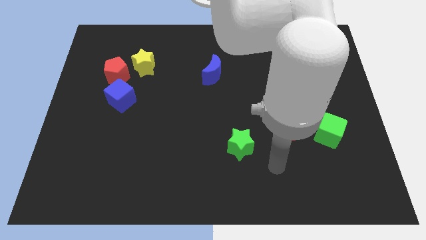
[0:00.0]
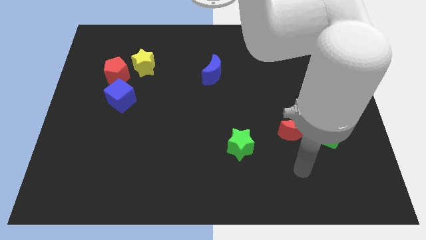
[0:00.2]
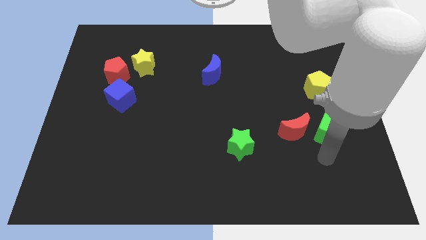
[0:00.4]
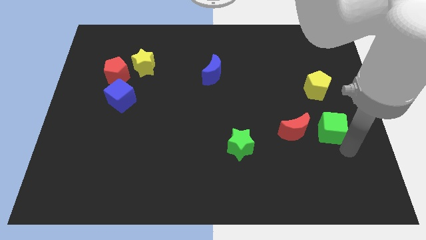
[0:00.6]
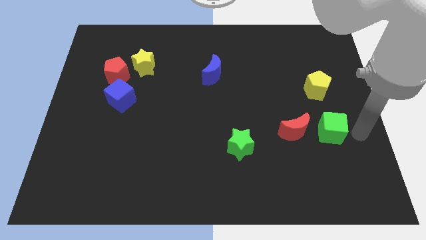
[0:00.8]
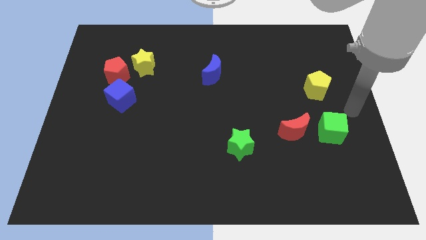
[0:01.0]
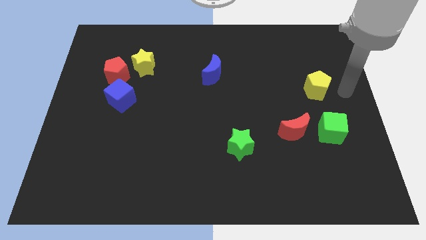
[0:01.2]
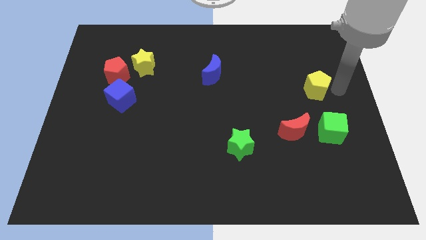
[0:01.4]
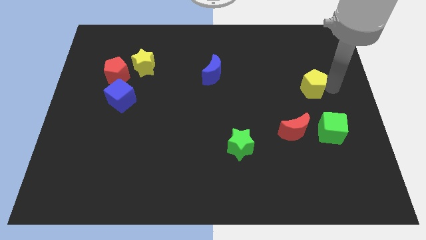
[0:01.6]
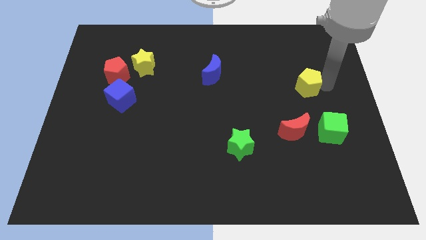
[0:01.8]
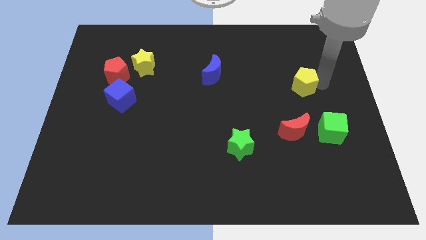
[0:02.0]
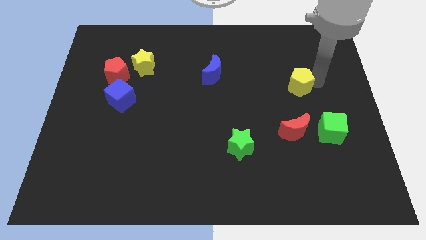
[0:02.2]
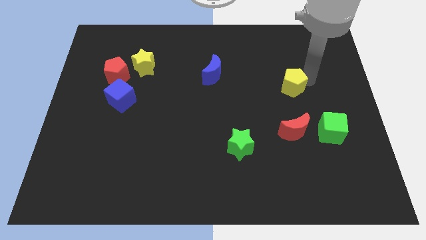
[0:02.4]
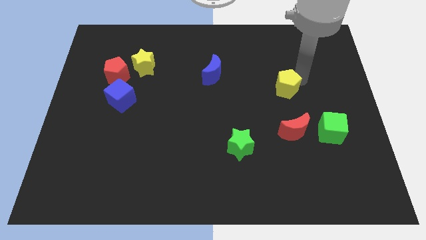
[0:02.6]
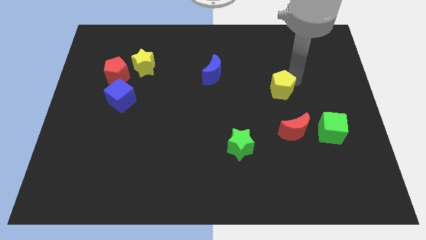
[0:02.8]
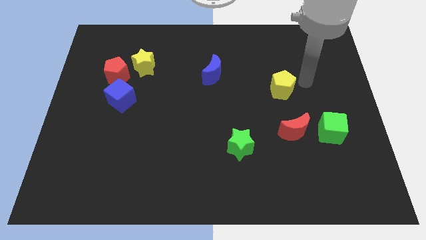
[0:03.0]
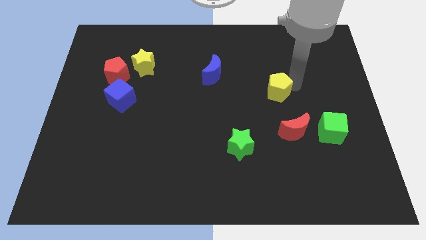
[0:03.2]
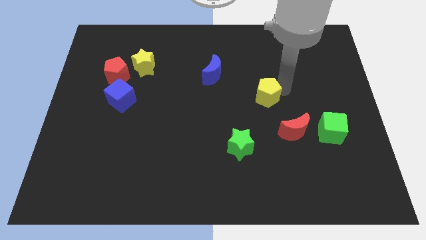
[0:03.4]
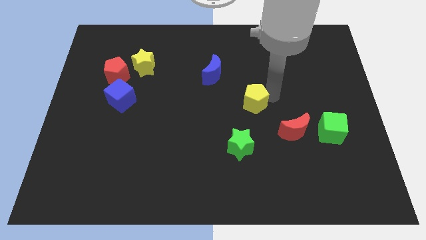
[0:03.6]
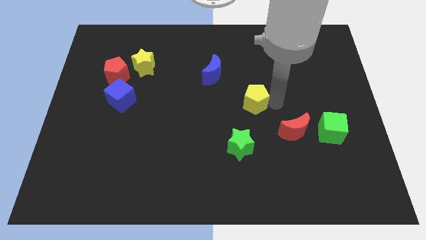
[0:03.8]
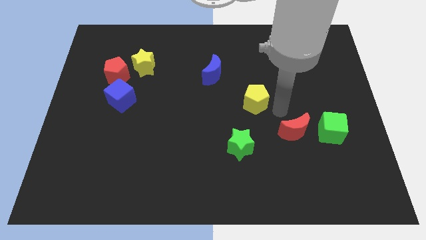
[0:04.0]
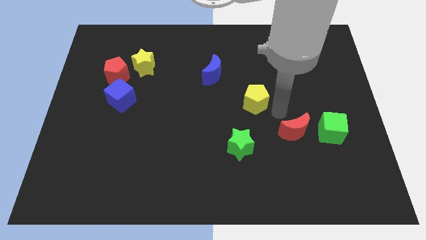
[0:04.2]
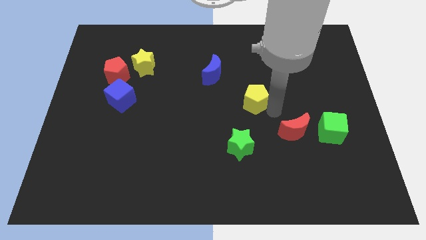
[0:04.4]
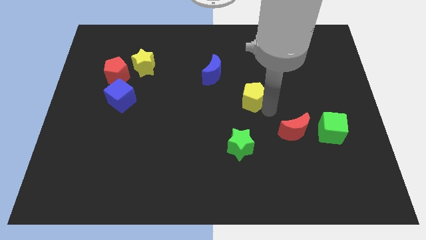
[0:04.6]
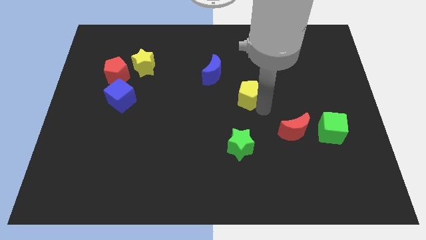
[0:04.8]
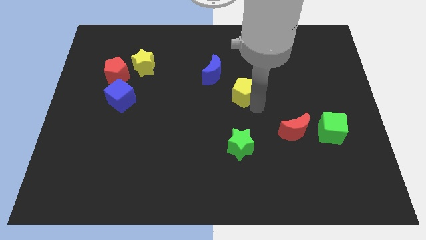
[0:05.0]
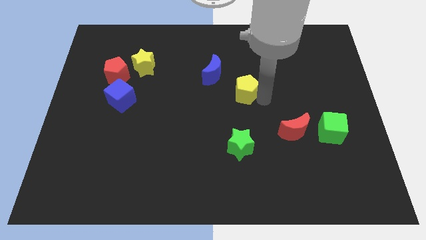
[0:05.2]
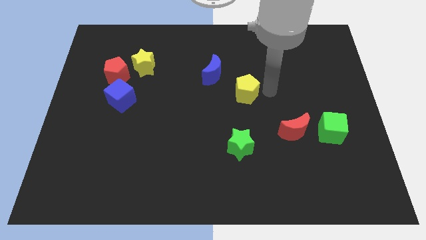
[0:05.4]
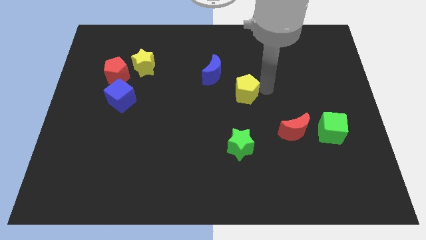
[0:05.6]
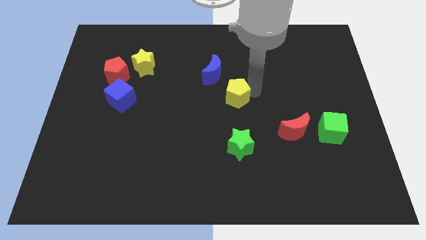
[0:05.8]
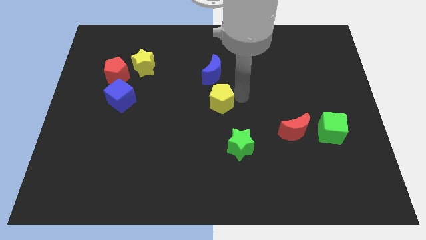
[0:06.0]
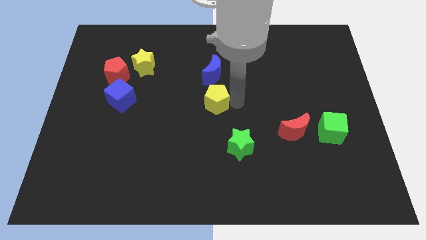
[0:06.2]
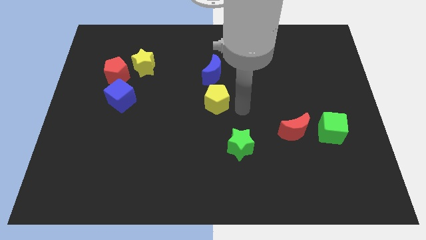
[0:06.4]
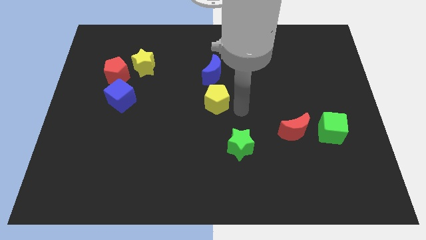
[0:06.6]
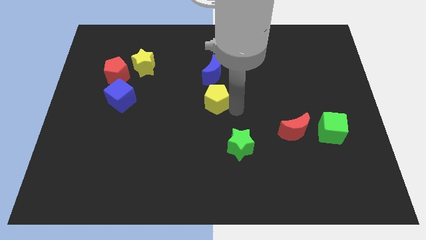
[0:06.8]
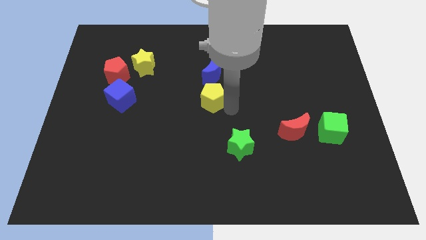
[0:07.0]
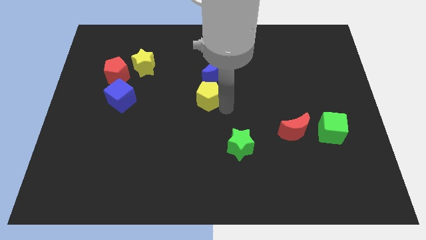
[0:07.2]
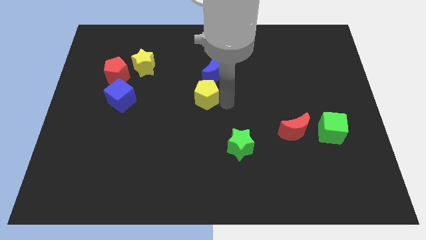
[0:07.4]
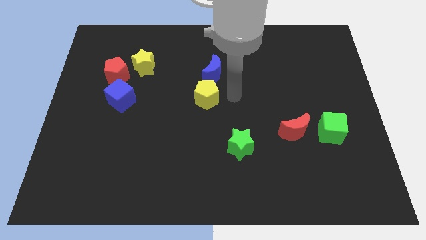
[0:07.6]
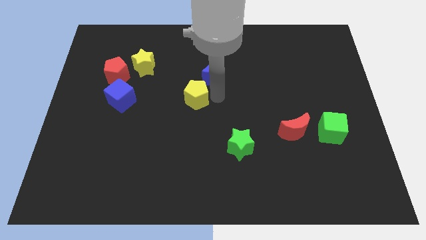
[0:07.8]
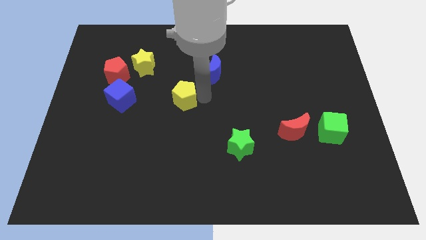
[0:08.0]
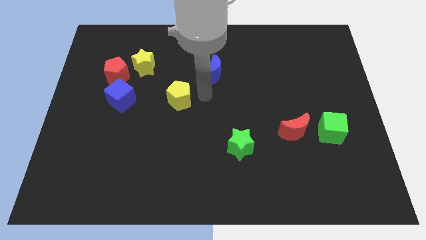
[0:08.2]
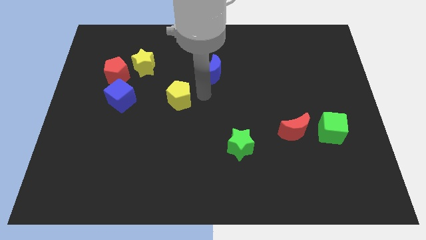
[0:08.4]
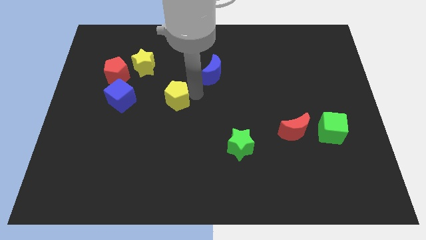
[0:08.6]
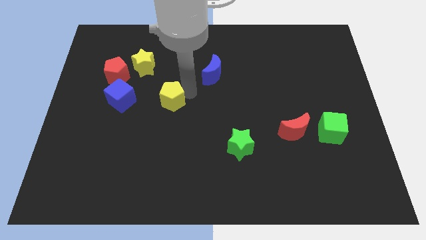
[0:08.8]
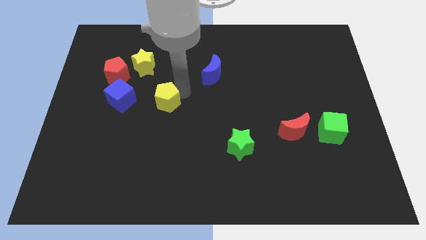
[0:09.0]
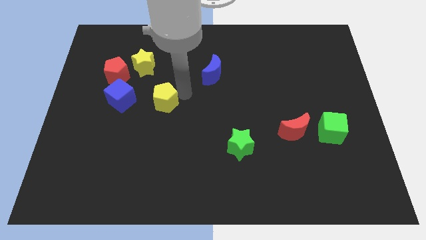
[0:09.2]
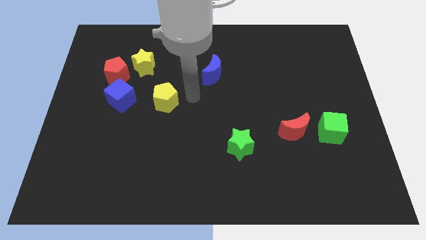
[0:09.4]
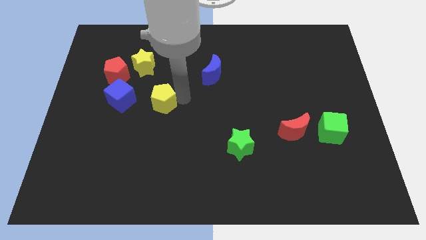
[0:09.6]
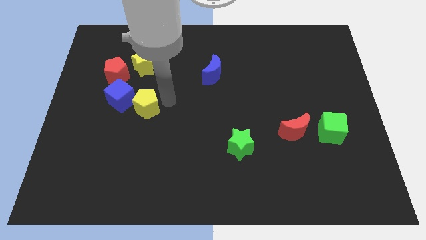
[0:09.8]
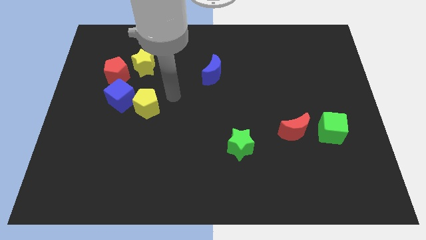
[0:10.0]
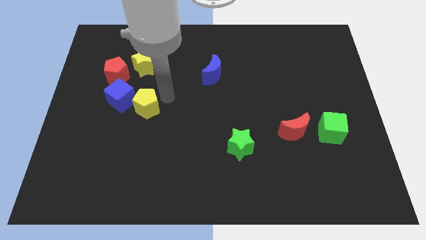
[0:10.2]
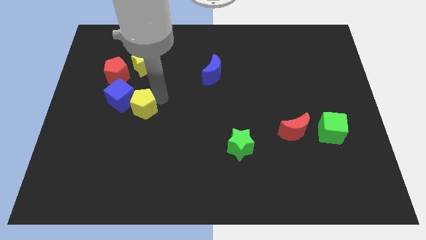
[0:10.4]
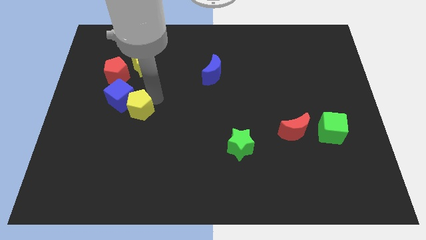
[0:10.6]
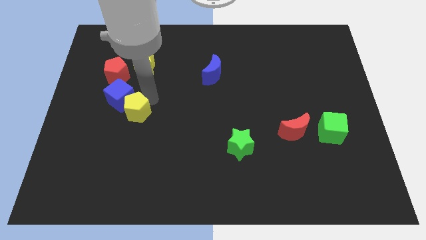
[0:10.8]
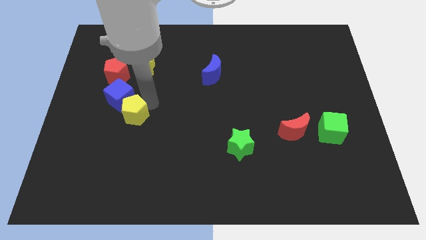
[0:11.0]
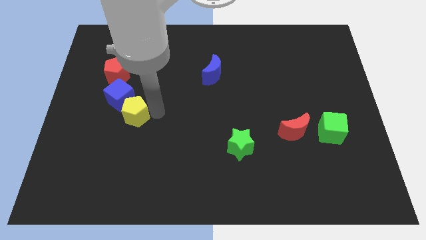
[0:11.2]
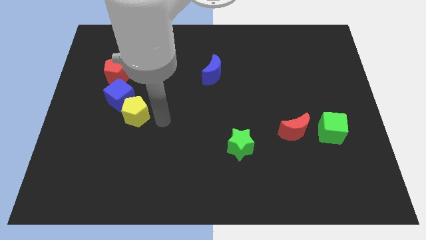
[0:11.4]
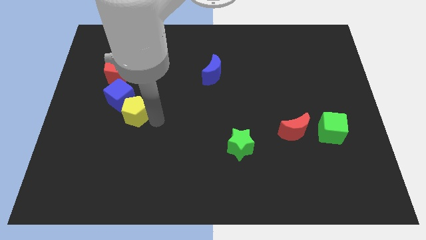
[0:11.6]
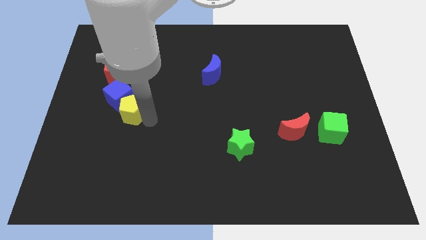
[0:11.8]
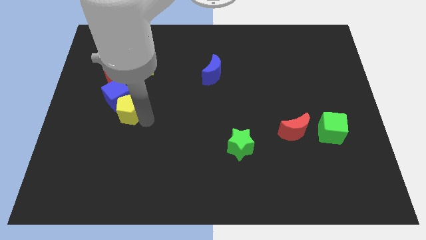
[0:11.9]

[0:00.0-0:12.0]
put the yellow pentagon to the bottom side of the red pentagon

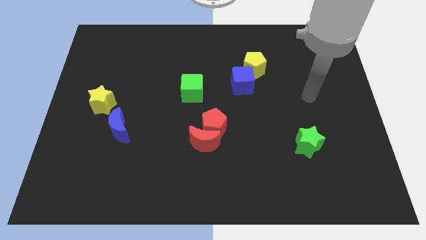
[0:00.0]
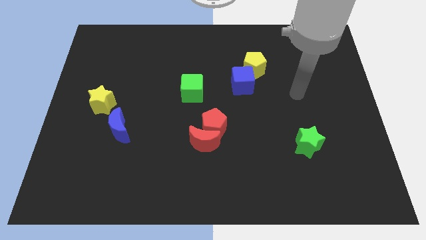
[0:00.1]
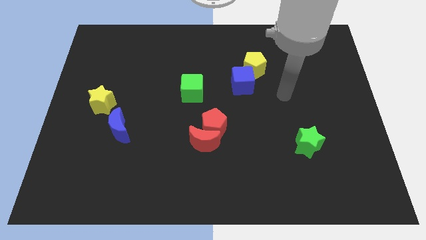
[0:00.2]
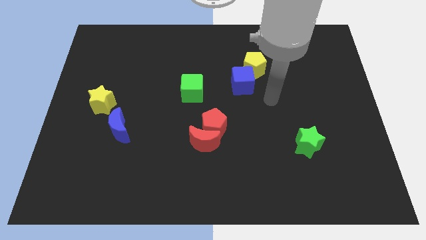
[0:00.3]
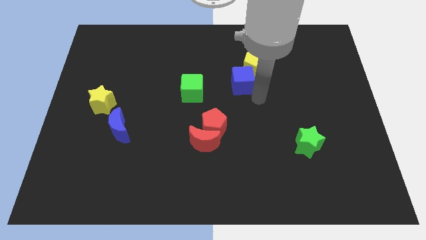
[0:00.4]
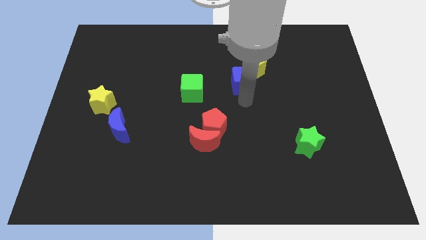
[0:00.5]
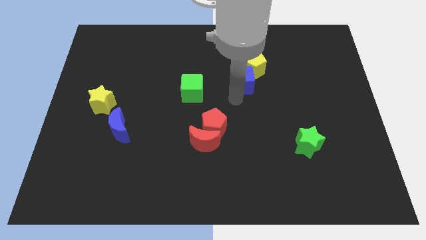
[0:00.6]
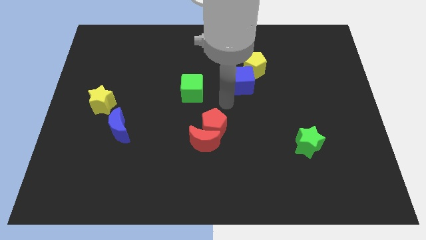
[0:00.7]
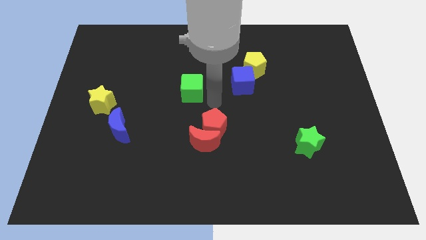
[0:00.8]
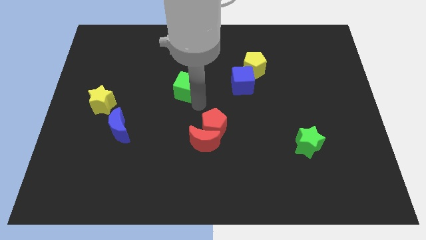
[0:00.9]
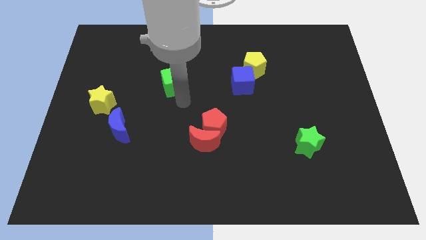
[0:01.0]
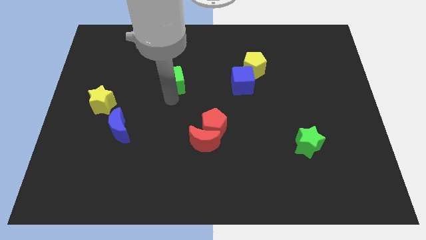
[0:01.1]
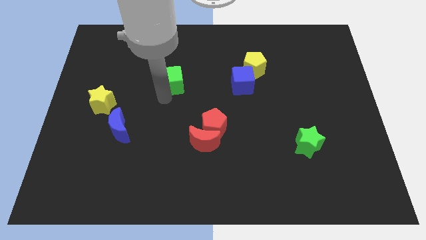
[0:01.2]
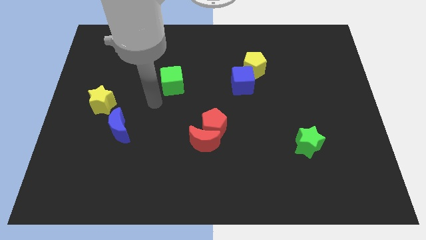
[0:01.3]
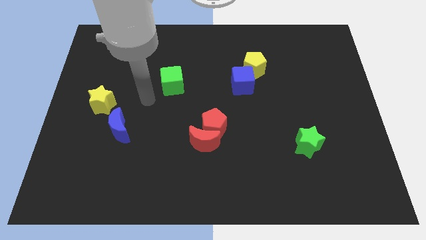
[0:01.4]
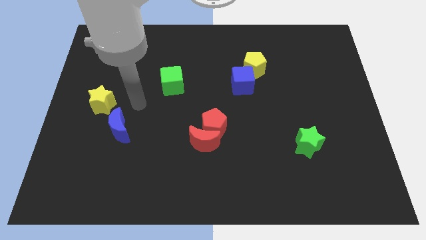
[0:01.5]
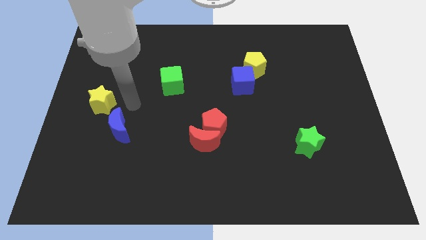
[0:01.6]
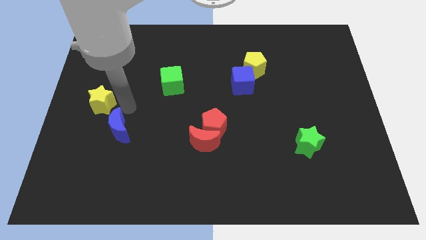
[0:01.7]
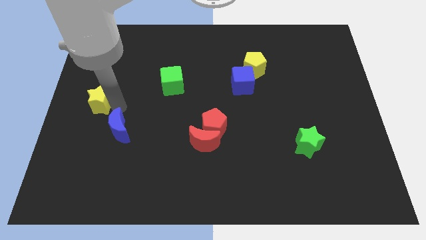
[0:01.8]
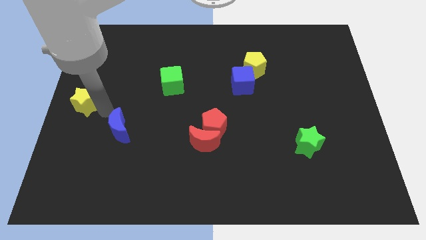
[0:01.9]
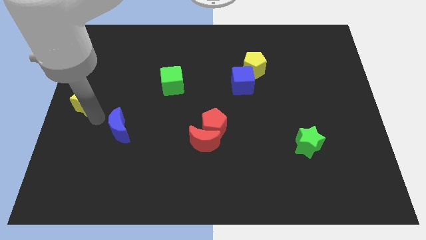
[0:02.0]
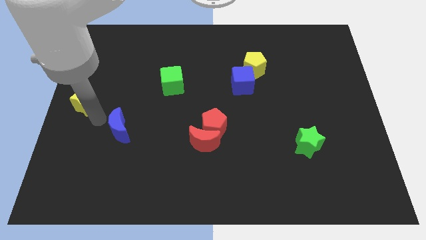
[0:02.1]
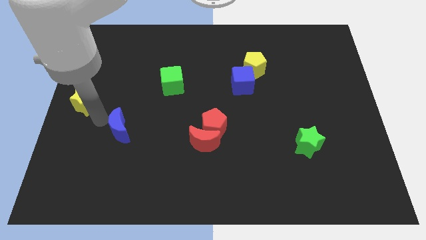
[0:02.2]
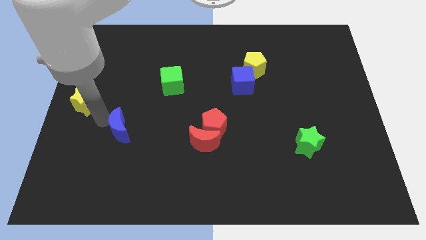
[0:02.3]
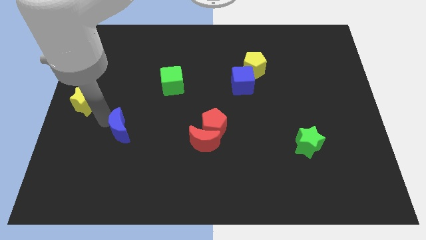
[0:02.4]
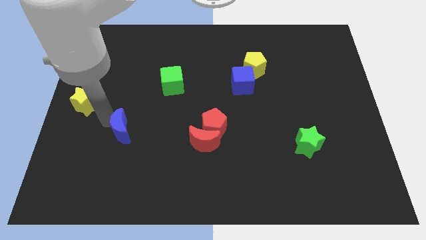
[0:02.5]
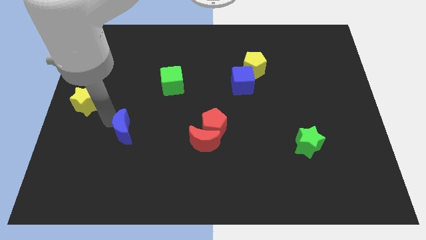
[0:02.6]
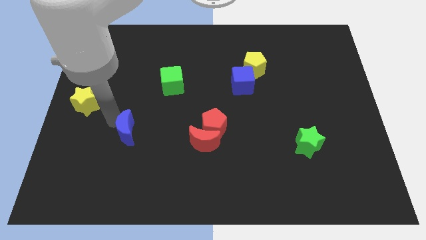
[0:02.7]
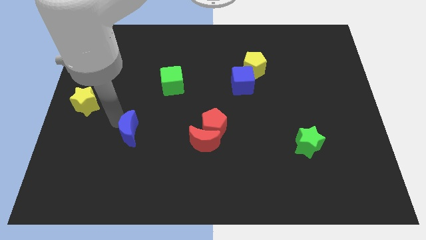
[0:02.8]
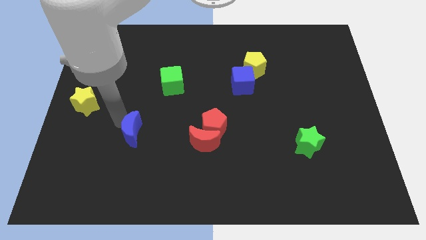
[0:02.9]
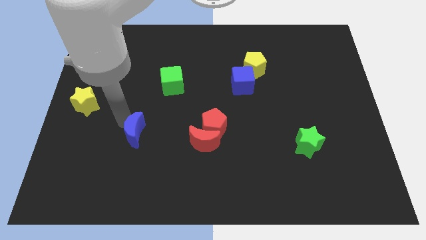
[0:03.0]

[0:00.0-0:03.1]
move the blue moon to the left of the red moon
